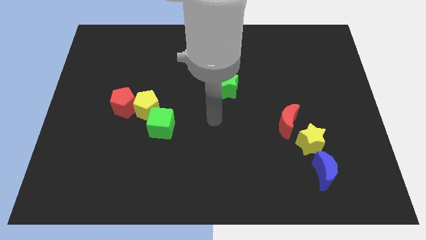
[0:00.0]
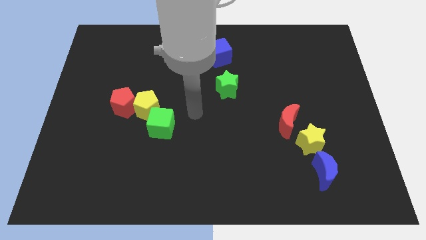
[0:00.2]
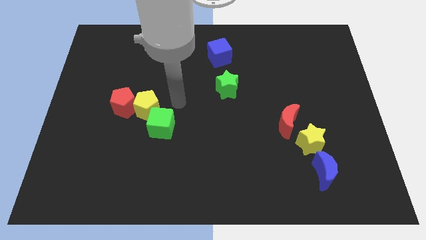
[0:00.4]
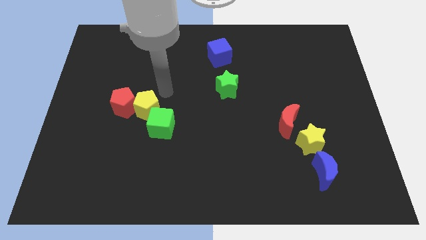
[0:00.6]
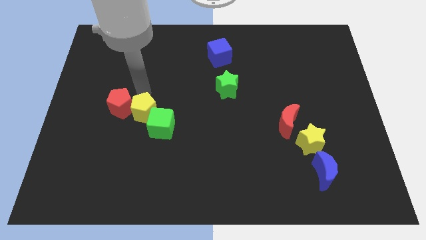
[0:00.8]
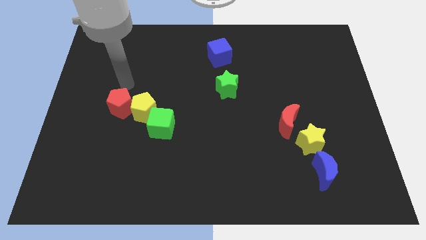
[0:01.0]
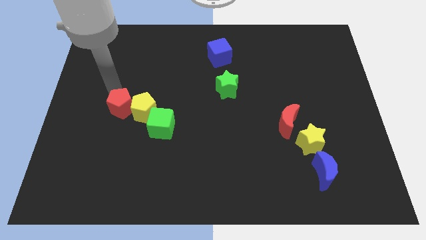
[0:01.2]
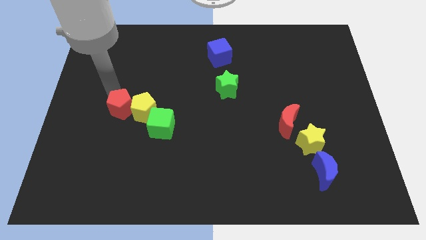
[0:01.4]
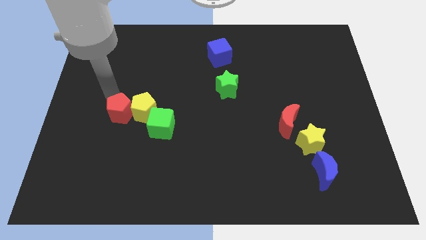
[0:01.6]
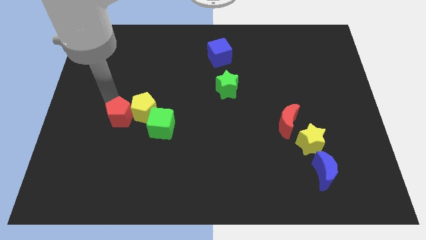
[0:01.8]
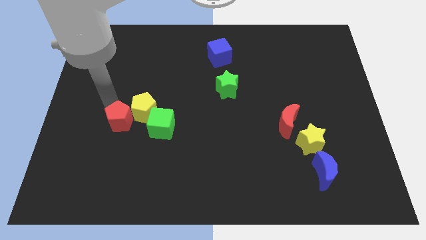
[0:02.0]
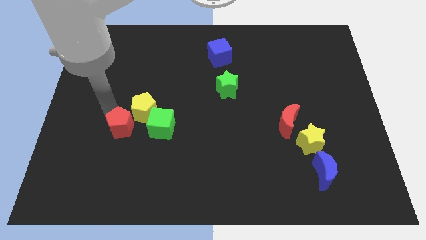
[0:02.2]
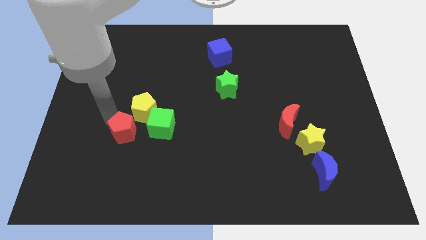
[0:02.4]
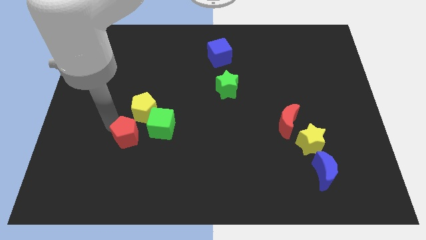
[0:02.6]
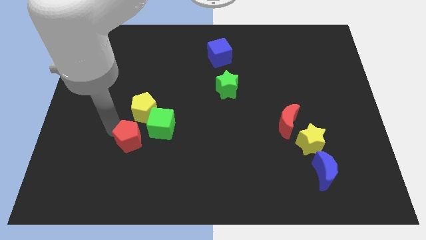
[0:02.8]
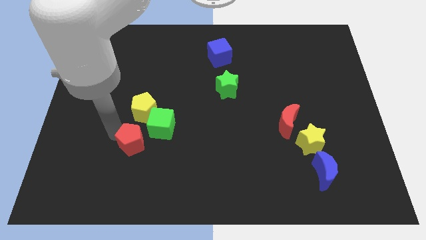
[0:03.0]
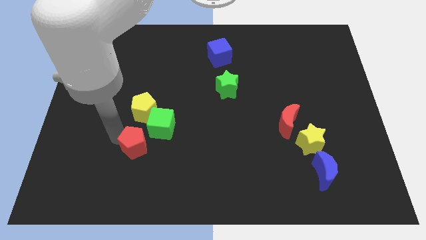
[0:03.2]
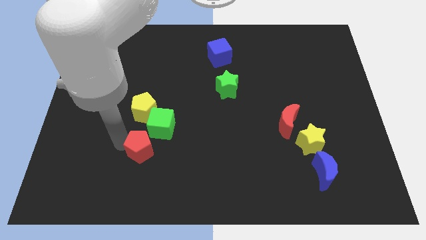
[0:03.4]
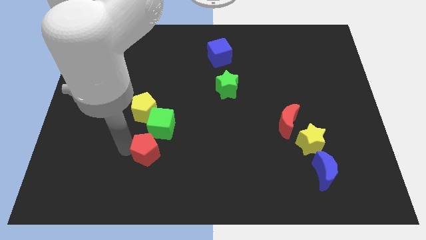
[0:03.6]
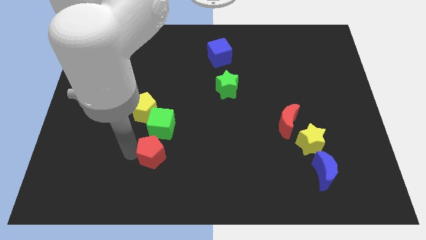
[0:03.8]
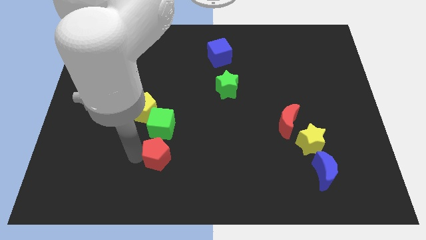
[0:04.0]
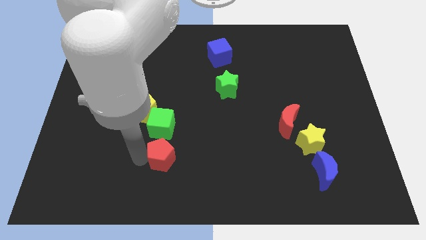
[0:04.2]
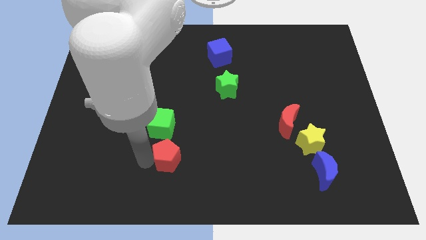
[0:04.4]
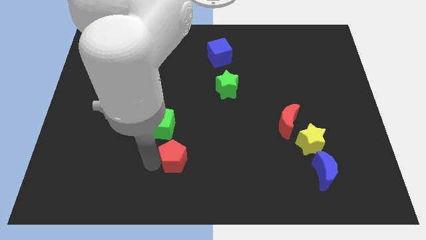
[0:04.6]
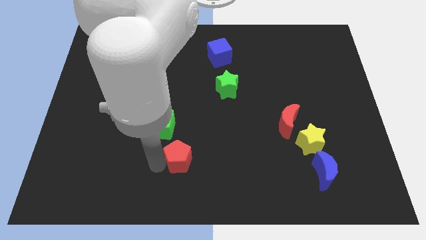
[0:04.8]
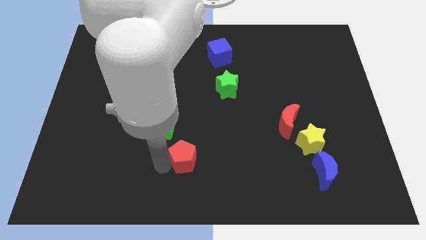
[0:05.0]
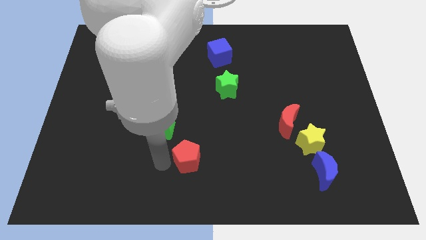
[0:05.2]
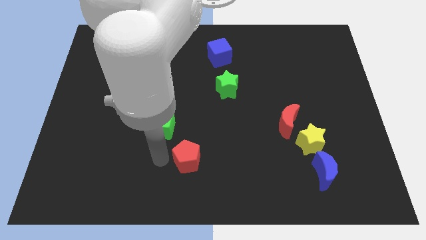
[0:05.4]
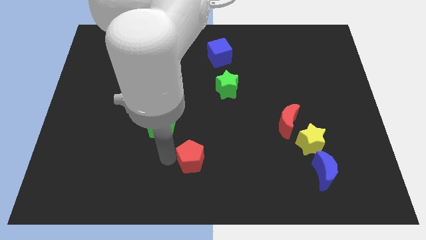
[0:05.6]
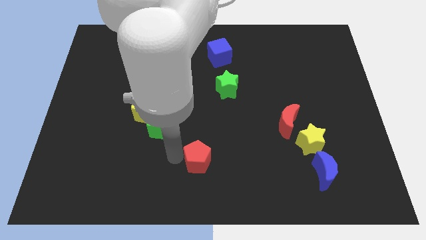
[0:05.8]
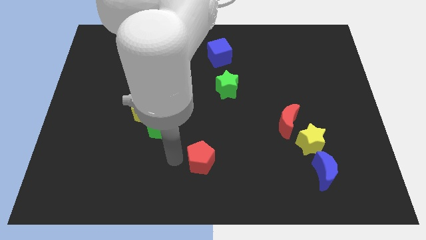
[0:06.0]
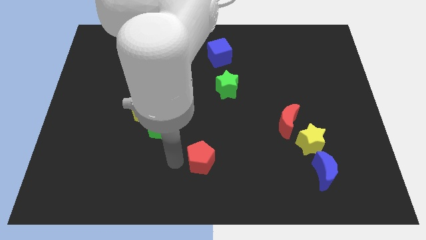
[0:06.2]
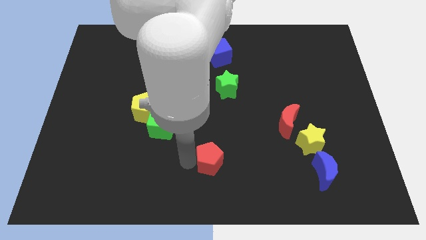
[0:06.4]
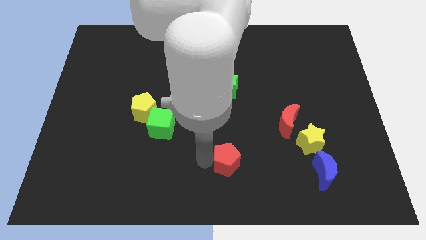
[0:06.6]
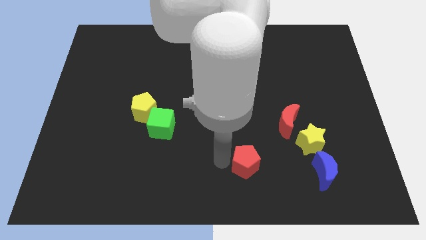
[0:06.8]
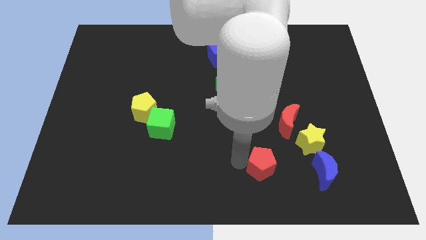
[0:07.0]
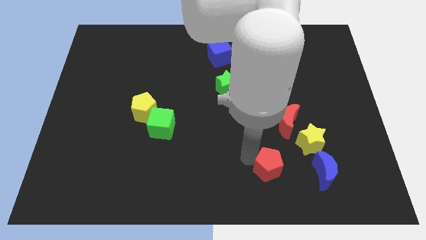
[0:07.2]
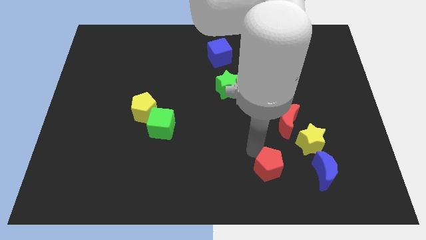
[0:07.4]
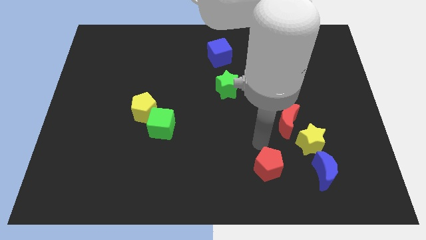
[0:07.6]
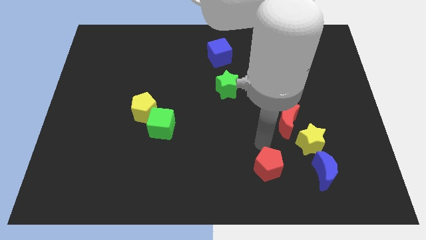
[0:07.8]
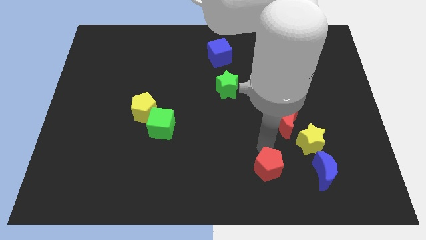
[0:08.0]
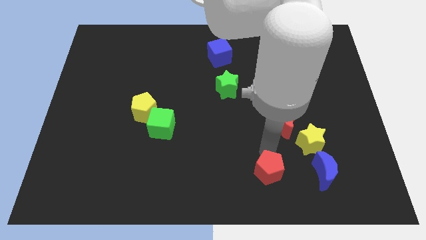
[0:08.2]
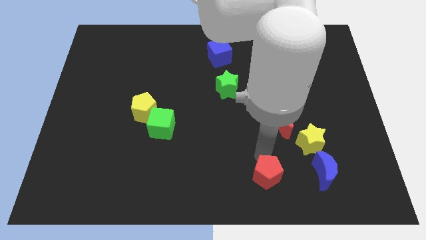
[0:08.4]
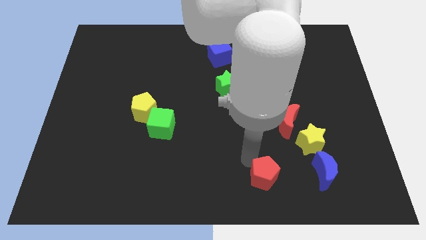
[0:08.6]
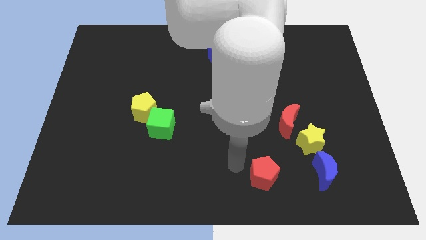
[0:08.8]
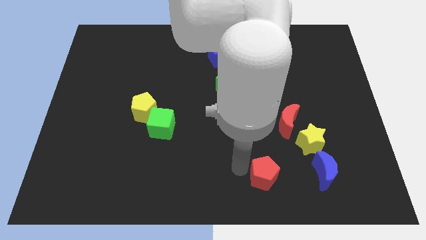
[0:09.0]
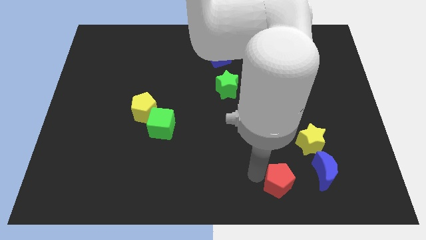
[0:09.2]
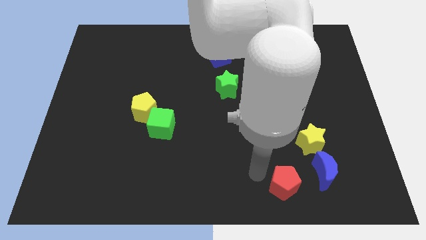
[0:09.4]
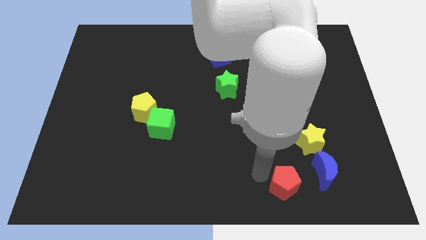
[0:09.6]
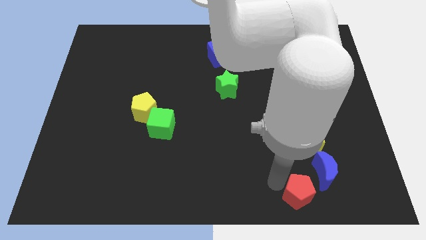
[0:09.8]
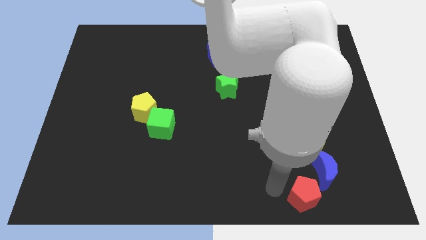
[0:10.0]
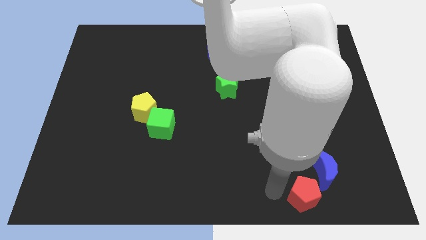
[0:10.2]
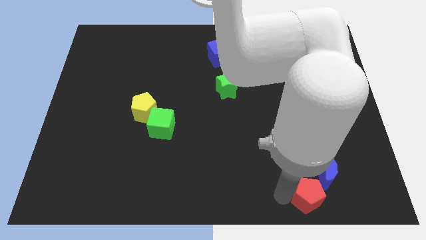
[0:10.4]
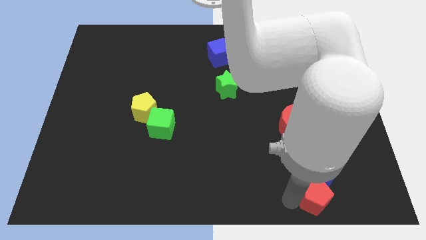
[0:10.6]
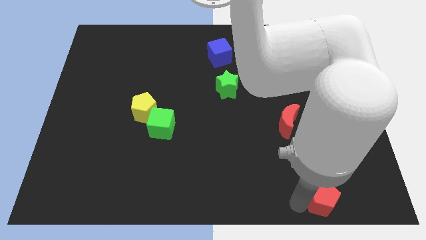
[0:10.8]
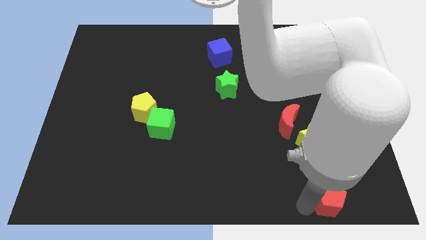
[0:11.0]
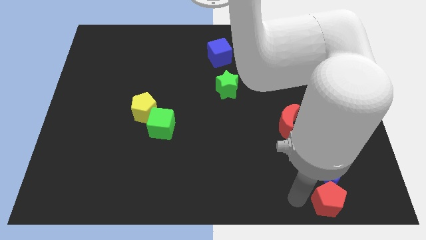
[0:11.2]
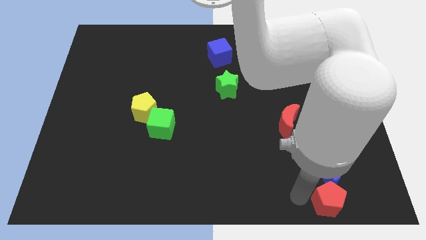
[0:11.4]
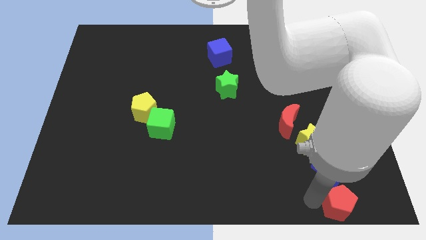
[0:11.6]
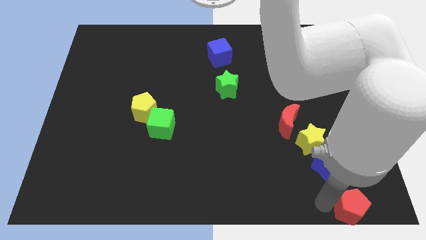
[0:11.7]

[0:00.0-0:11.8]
push the red pentagon to the bottom right of the board
